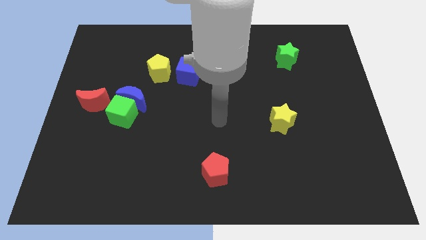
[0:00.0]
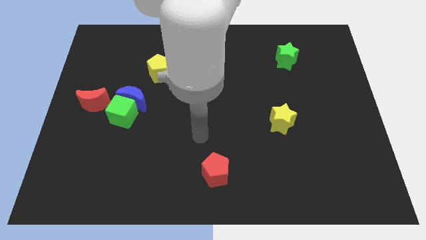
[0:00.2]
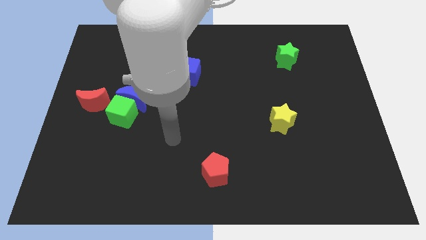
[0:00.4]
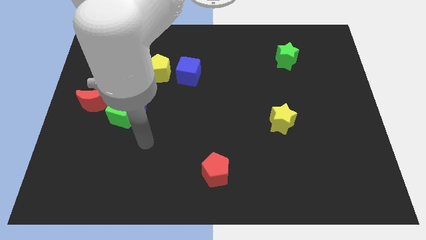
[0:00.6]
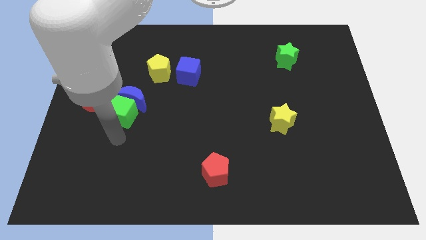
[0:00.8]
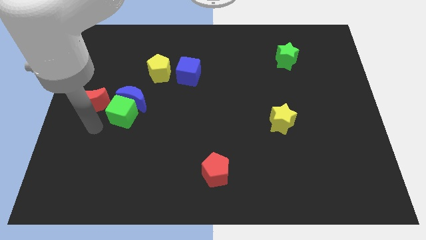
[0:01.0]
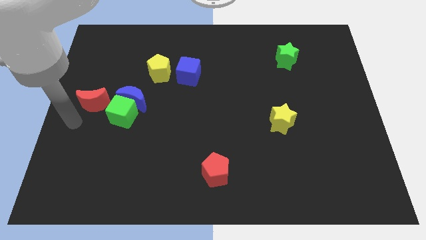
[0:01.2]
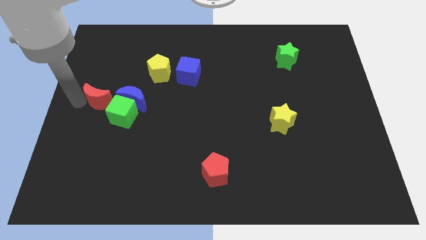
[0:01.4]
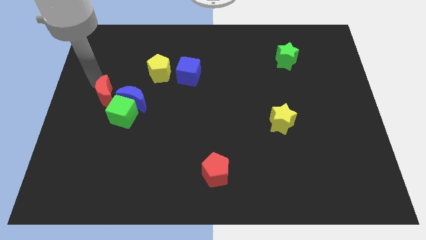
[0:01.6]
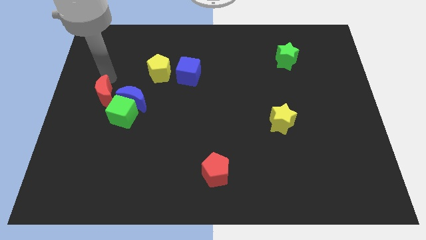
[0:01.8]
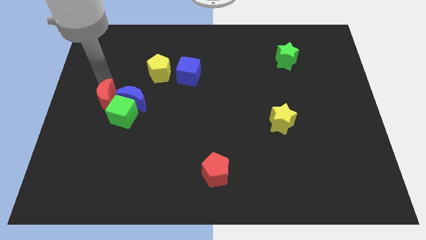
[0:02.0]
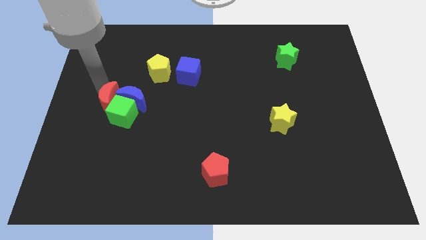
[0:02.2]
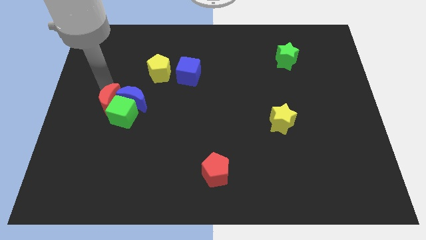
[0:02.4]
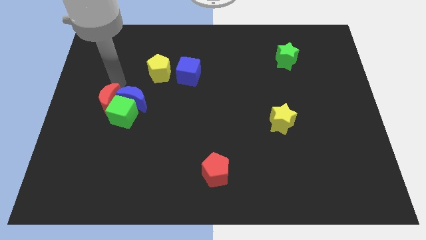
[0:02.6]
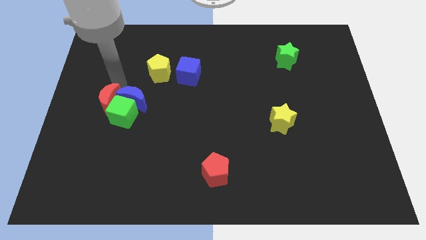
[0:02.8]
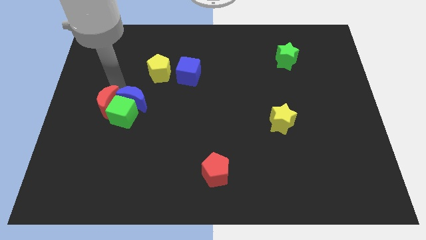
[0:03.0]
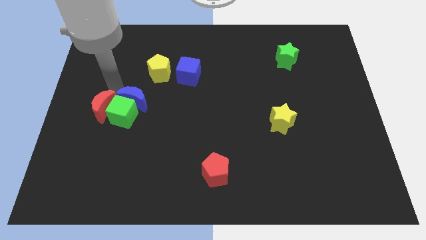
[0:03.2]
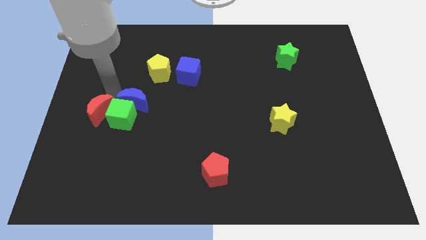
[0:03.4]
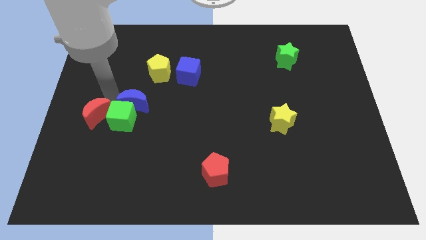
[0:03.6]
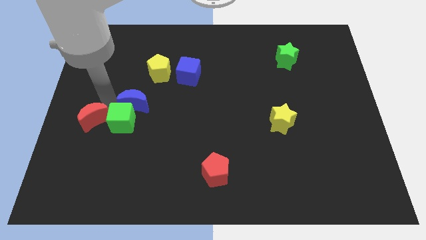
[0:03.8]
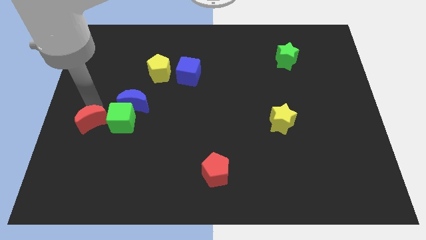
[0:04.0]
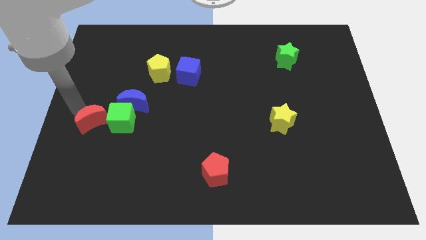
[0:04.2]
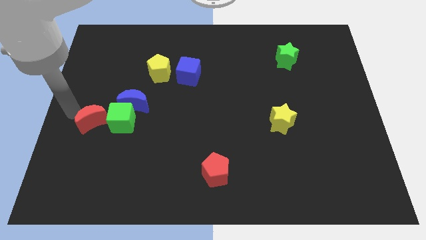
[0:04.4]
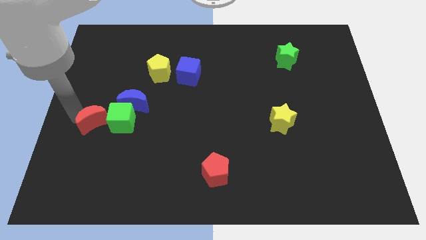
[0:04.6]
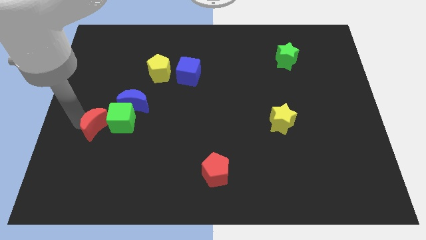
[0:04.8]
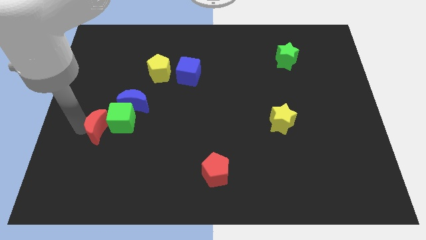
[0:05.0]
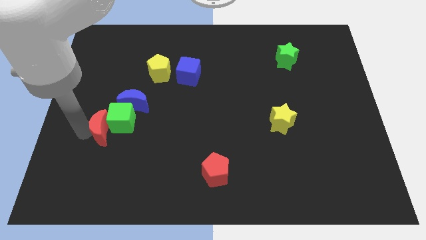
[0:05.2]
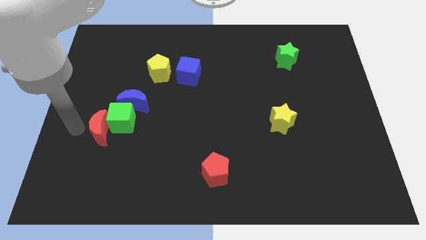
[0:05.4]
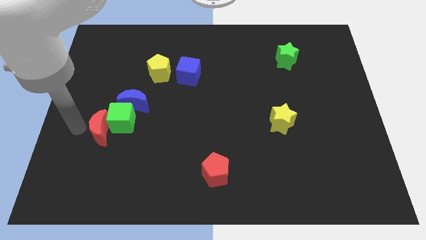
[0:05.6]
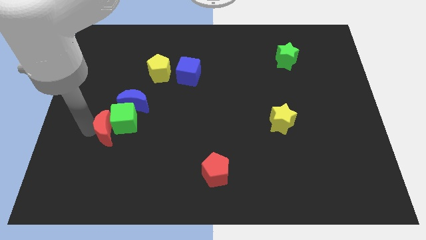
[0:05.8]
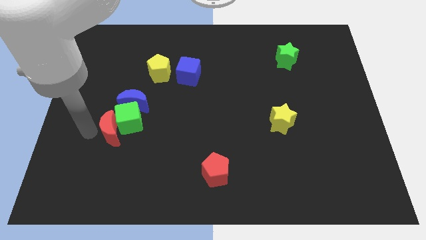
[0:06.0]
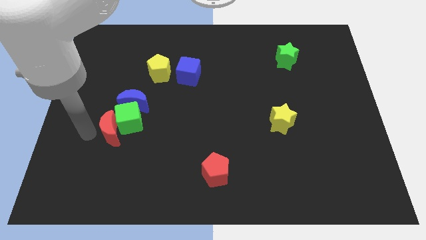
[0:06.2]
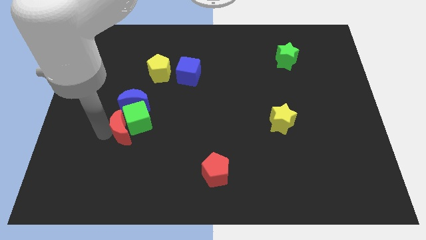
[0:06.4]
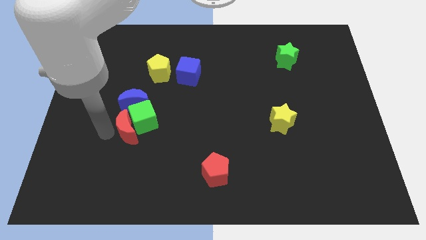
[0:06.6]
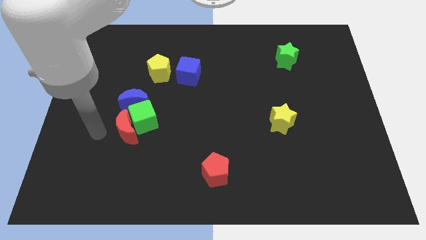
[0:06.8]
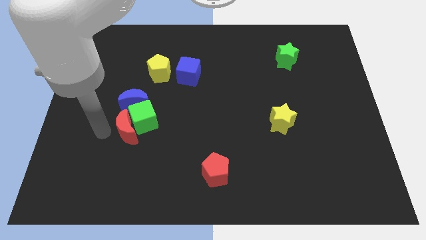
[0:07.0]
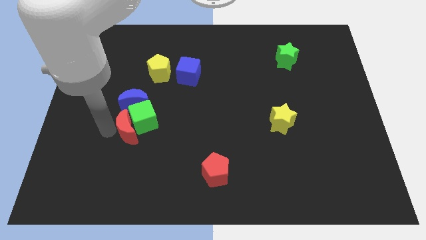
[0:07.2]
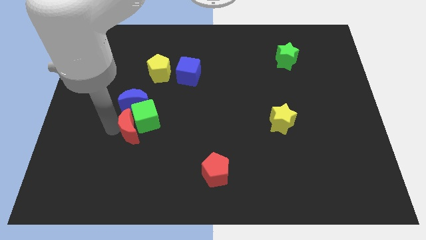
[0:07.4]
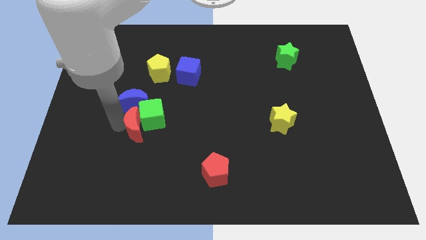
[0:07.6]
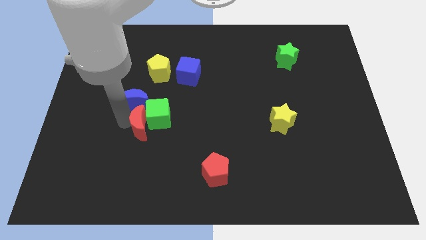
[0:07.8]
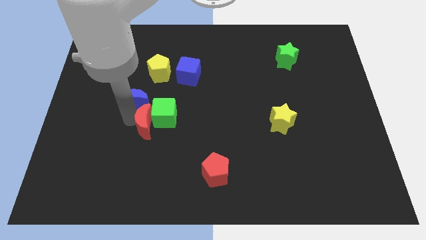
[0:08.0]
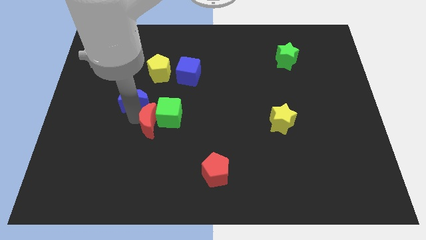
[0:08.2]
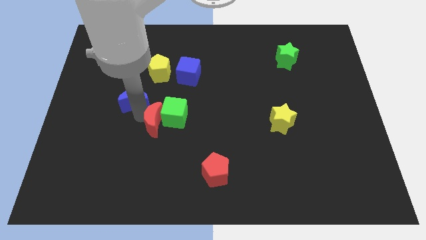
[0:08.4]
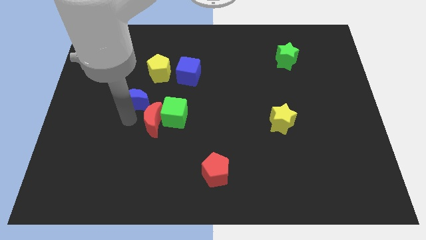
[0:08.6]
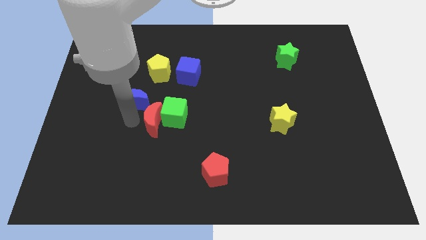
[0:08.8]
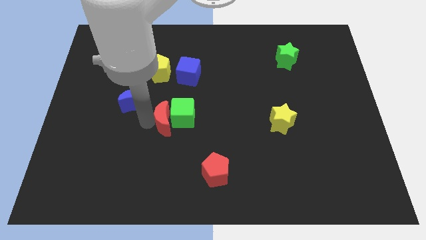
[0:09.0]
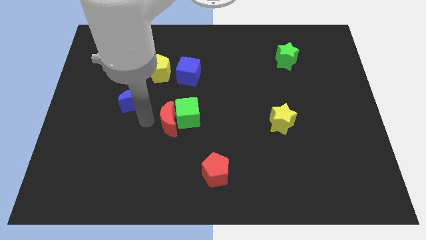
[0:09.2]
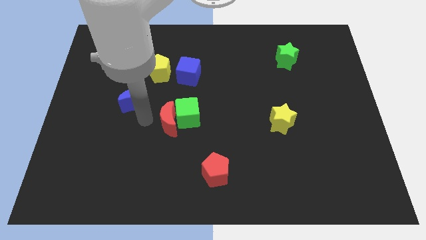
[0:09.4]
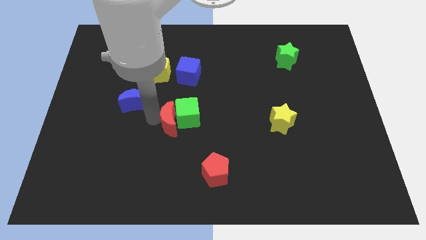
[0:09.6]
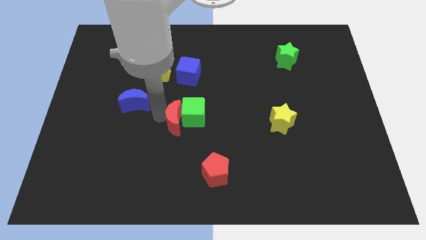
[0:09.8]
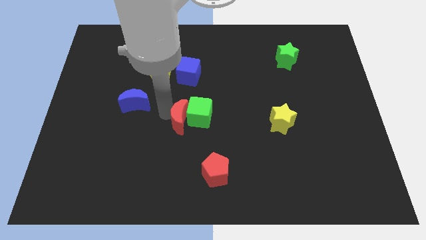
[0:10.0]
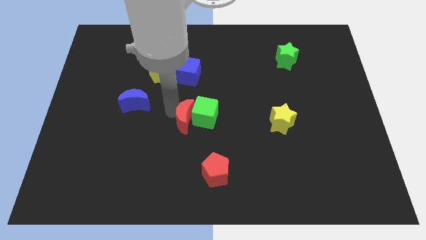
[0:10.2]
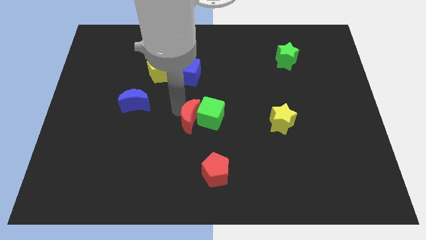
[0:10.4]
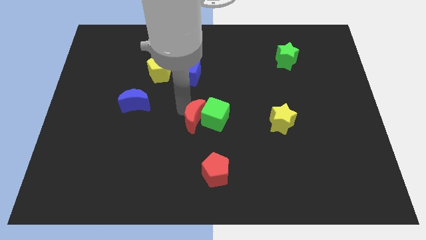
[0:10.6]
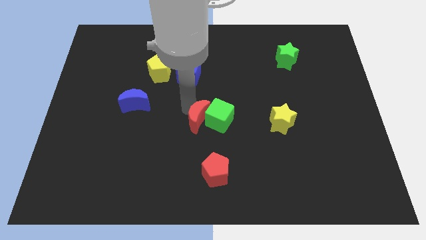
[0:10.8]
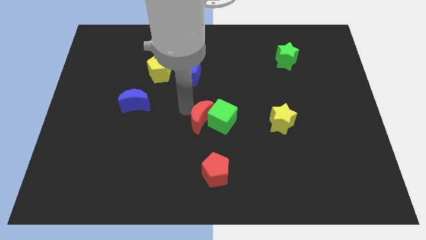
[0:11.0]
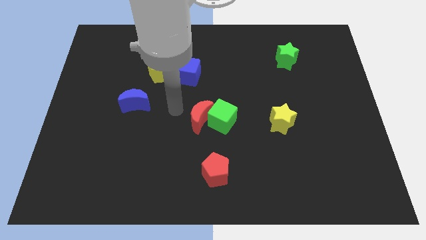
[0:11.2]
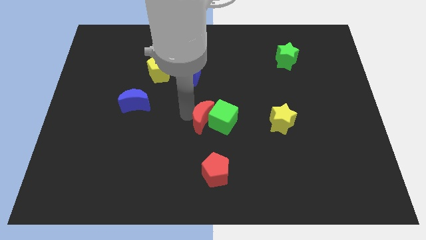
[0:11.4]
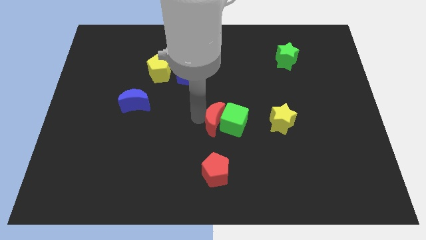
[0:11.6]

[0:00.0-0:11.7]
move the red moon just left of the yellow star

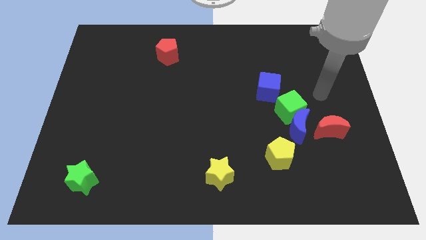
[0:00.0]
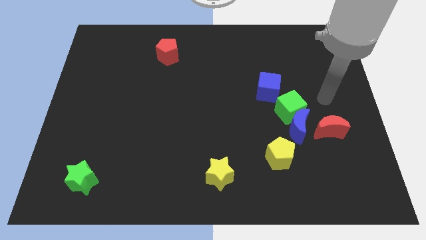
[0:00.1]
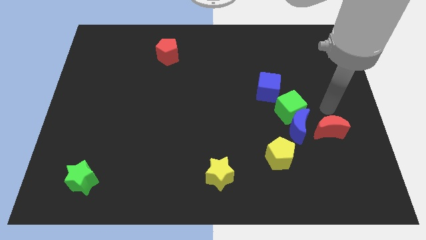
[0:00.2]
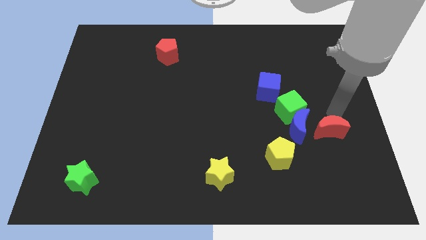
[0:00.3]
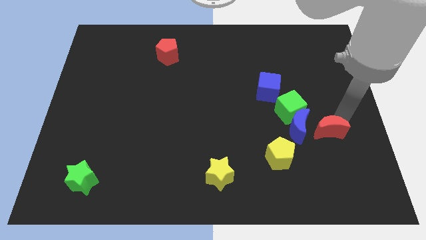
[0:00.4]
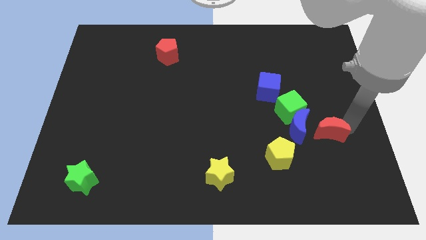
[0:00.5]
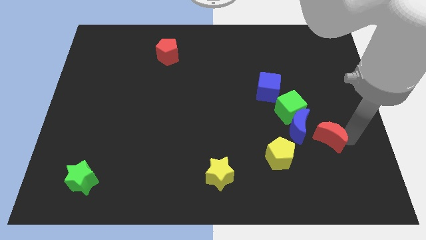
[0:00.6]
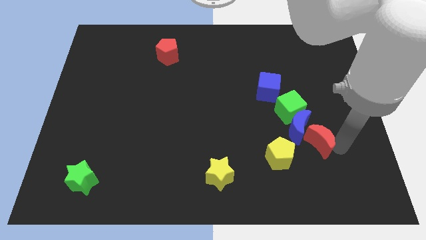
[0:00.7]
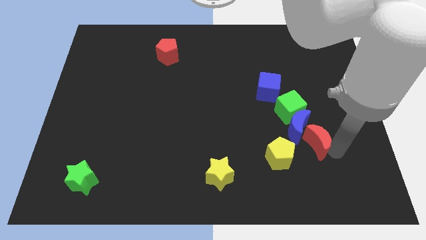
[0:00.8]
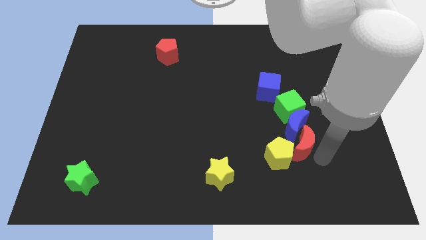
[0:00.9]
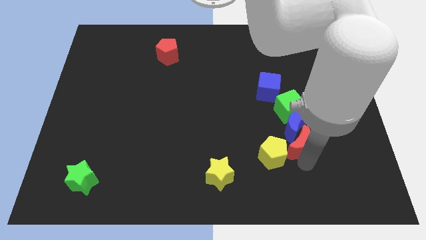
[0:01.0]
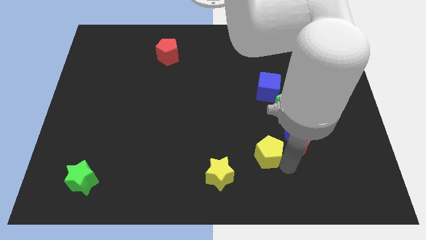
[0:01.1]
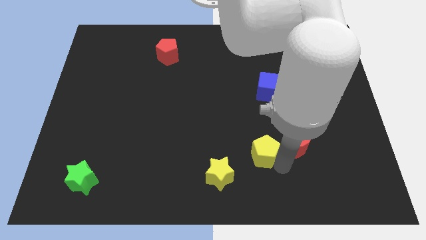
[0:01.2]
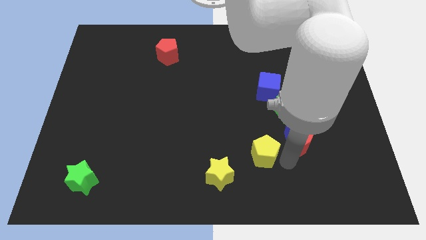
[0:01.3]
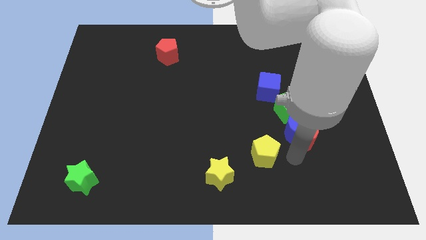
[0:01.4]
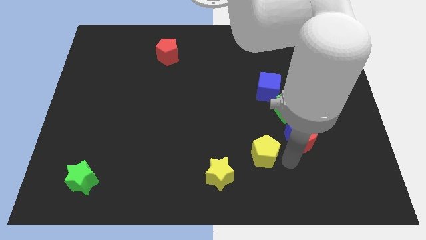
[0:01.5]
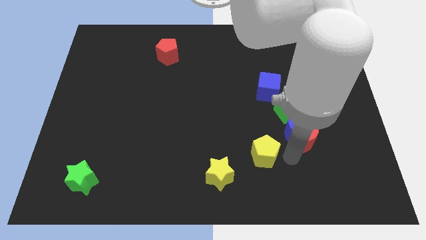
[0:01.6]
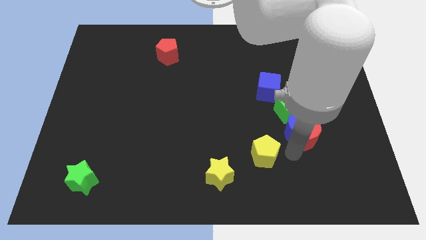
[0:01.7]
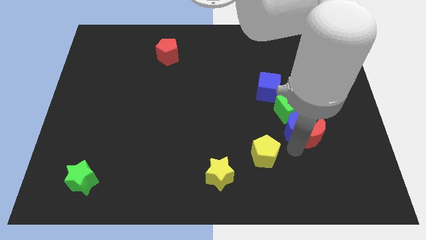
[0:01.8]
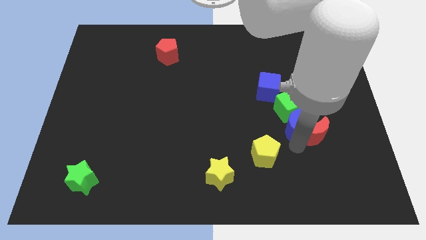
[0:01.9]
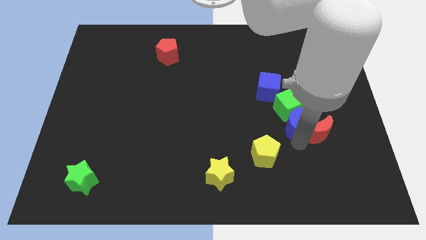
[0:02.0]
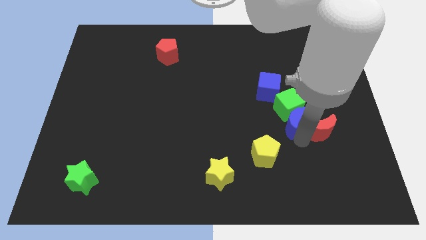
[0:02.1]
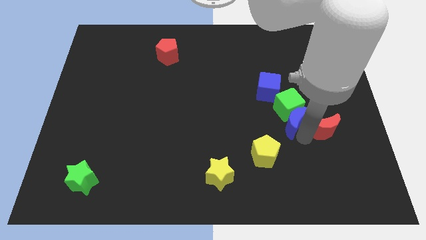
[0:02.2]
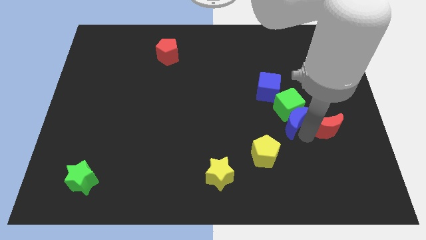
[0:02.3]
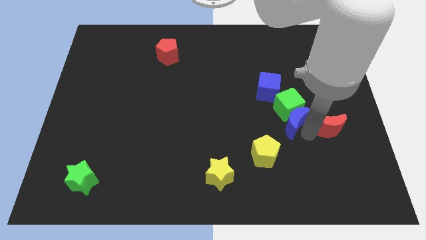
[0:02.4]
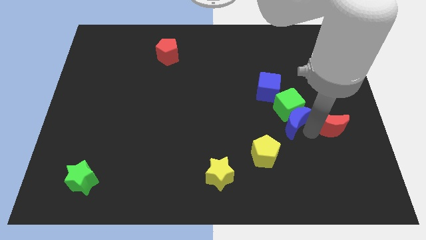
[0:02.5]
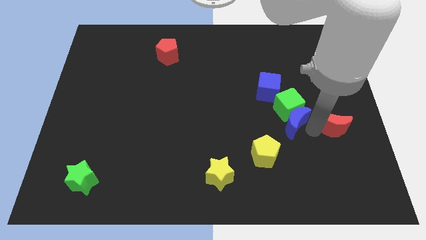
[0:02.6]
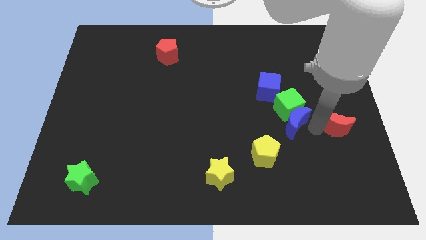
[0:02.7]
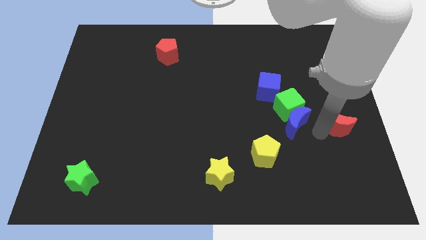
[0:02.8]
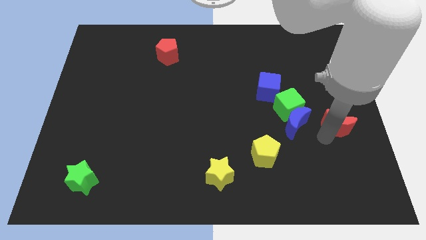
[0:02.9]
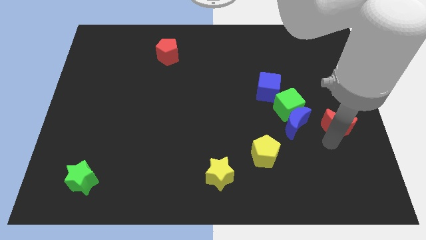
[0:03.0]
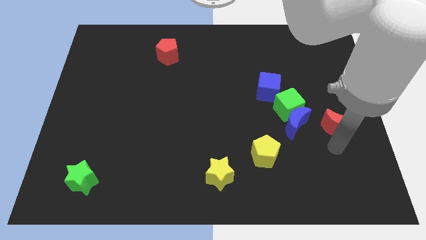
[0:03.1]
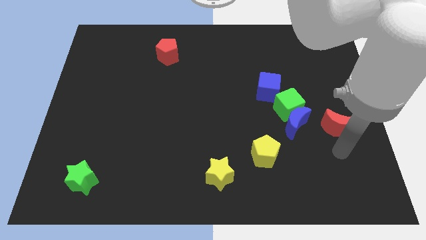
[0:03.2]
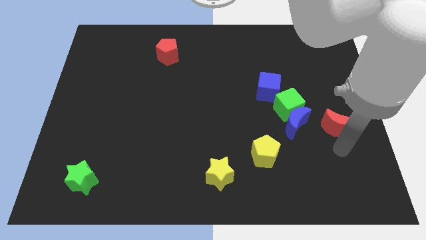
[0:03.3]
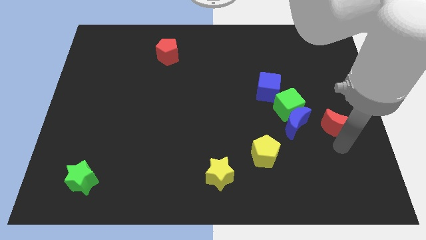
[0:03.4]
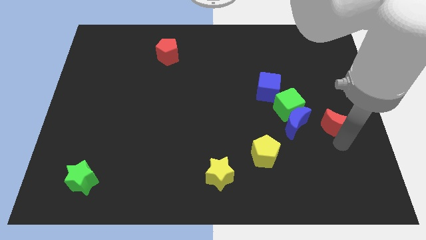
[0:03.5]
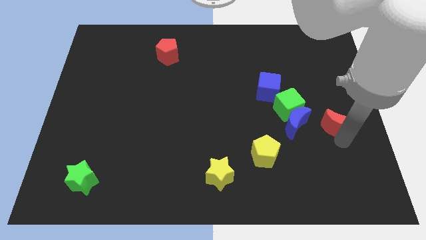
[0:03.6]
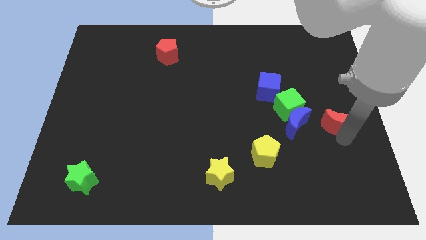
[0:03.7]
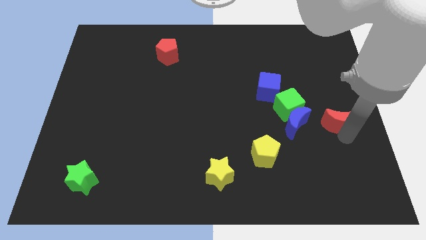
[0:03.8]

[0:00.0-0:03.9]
push the red moon right of the green cube
